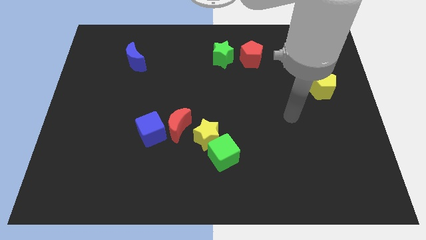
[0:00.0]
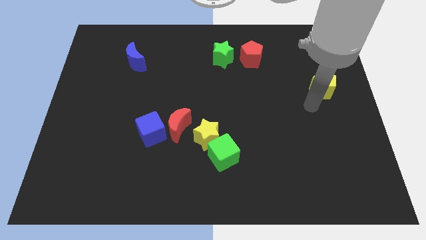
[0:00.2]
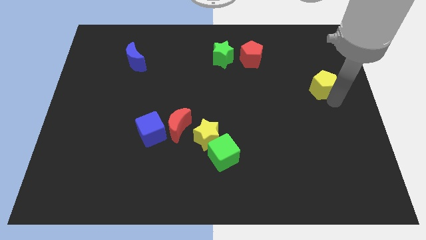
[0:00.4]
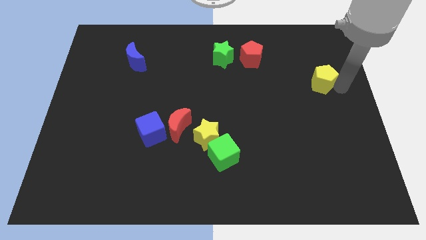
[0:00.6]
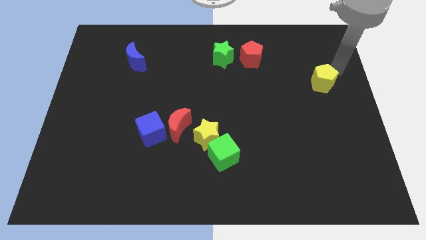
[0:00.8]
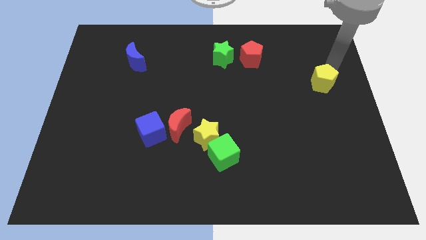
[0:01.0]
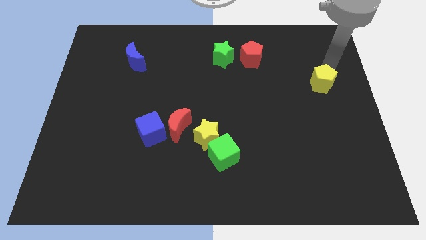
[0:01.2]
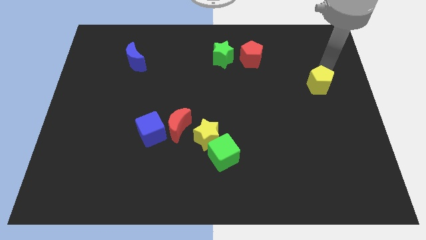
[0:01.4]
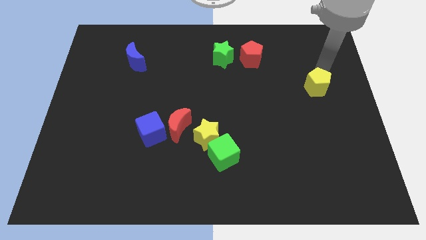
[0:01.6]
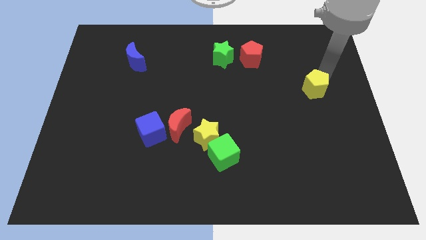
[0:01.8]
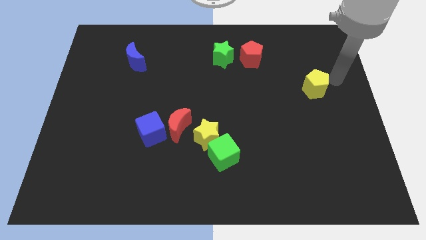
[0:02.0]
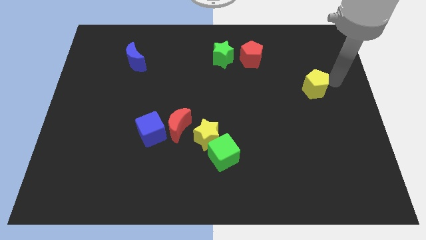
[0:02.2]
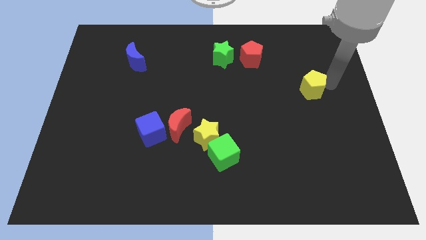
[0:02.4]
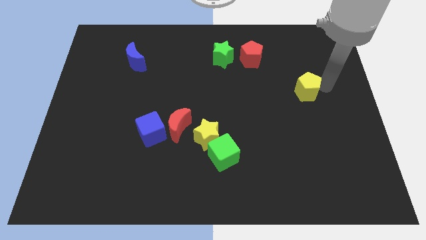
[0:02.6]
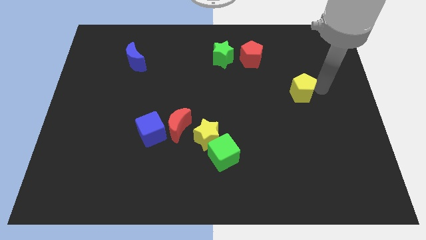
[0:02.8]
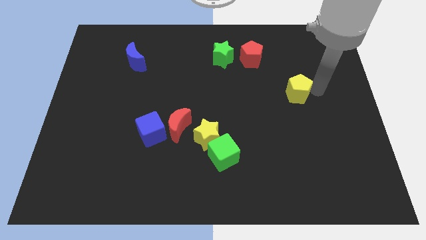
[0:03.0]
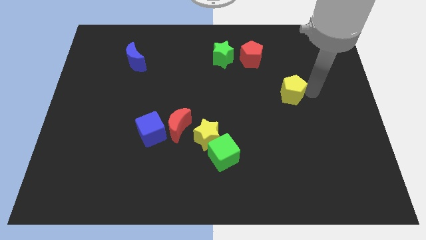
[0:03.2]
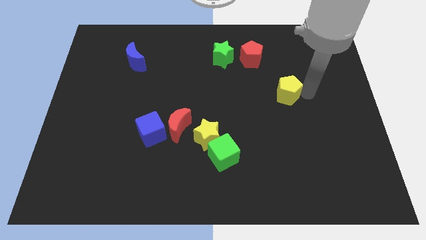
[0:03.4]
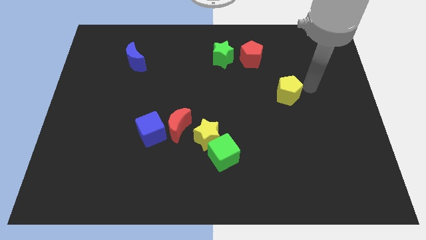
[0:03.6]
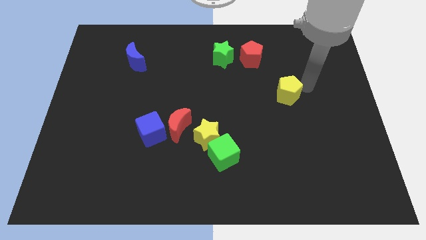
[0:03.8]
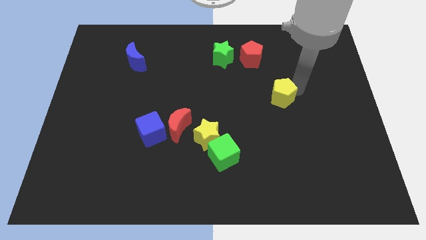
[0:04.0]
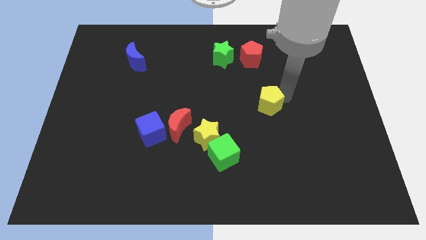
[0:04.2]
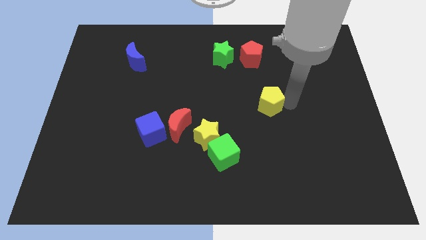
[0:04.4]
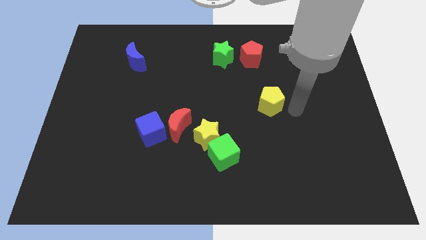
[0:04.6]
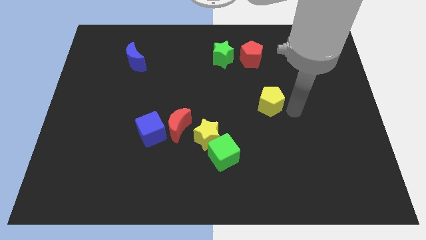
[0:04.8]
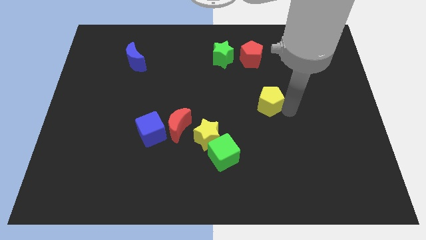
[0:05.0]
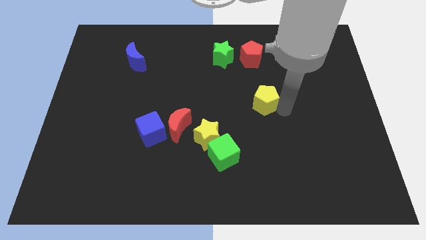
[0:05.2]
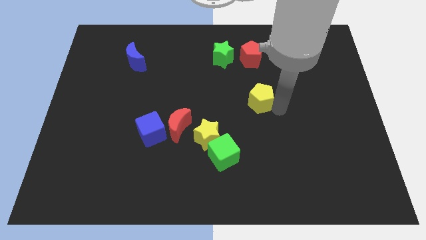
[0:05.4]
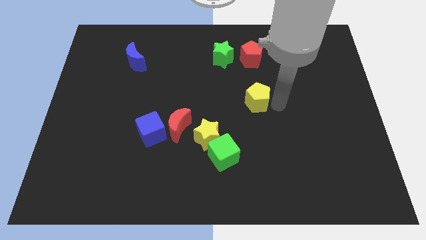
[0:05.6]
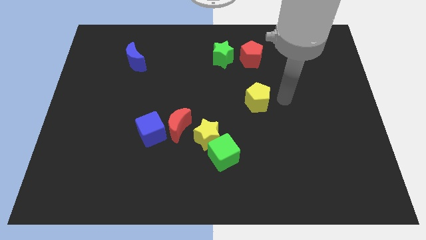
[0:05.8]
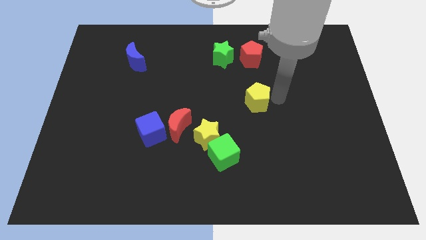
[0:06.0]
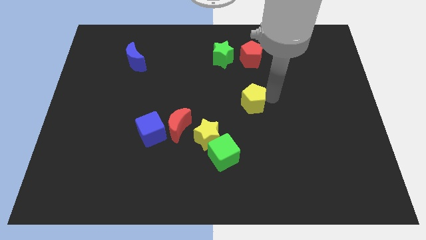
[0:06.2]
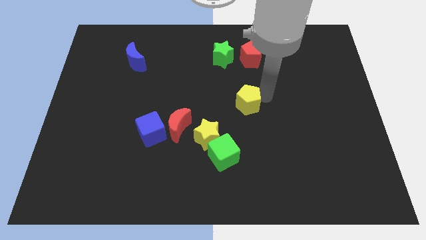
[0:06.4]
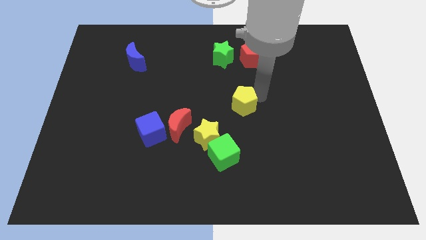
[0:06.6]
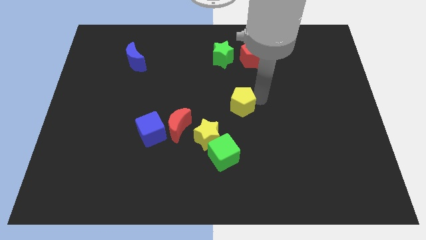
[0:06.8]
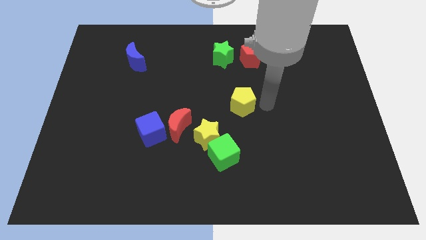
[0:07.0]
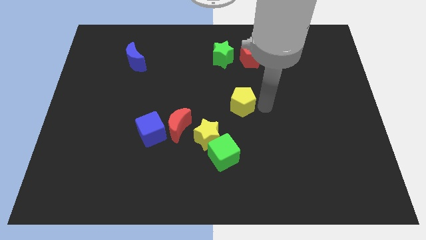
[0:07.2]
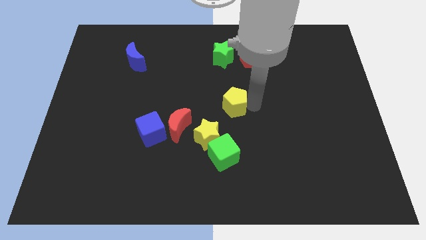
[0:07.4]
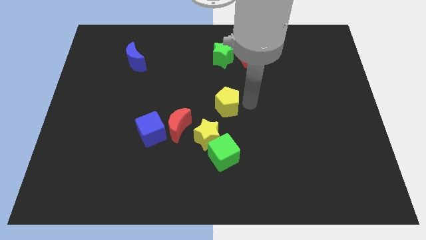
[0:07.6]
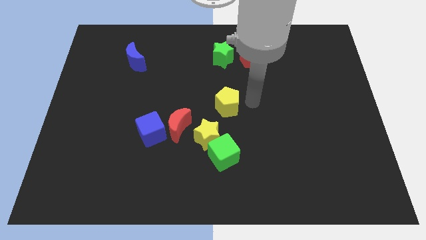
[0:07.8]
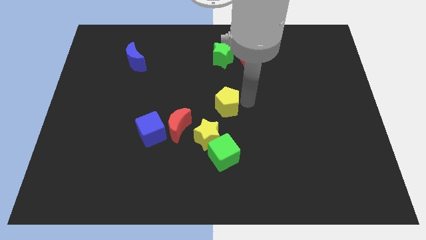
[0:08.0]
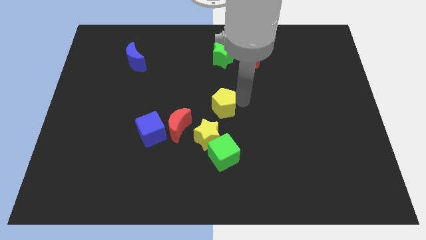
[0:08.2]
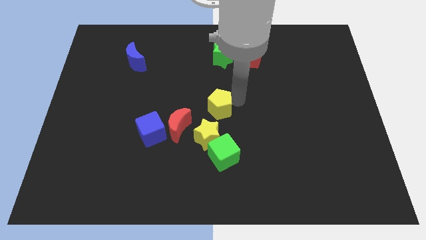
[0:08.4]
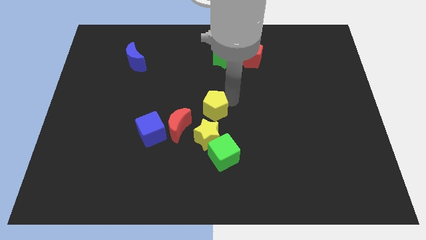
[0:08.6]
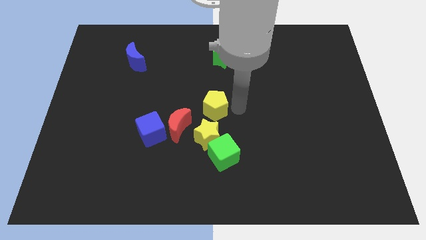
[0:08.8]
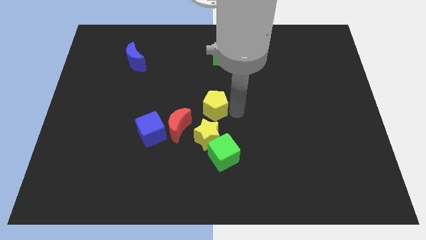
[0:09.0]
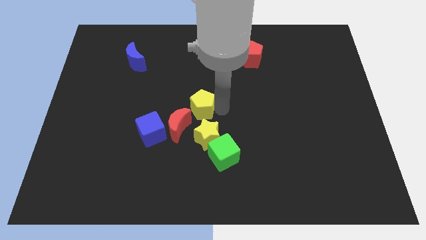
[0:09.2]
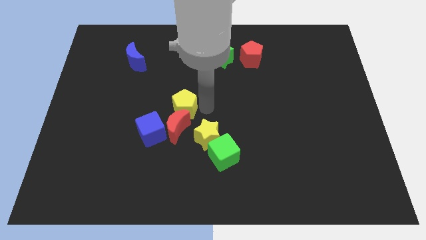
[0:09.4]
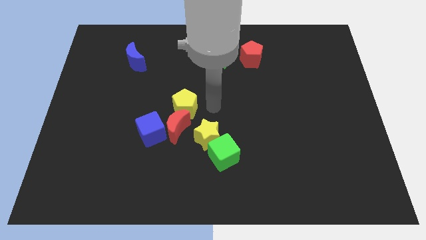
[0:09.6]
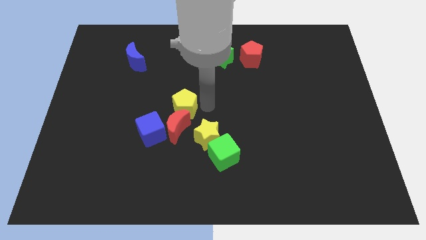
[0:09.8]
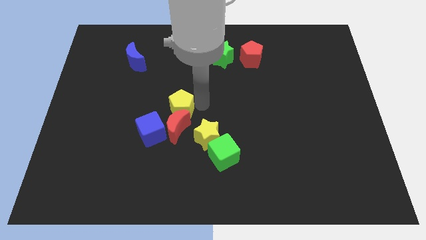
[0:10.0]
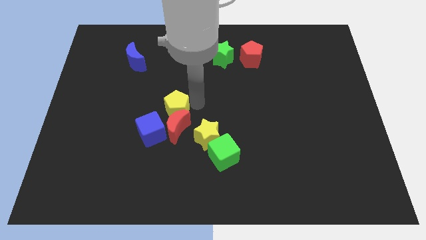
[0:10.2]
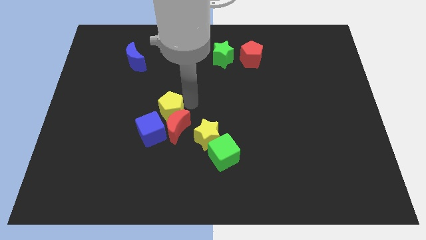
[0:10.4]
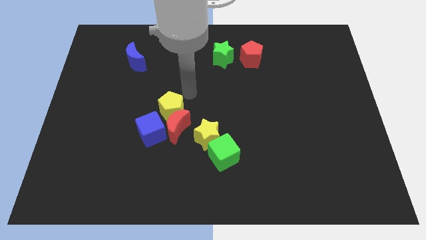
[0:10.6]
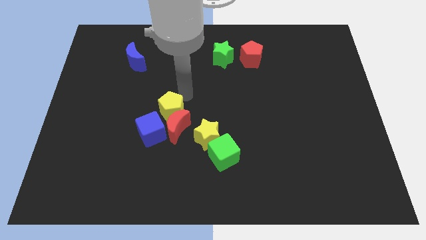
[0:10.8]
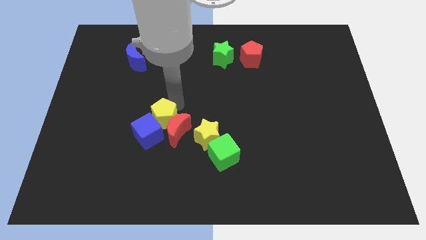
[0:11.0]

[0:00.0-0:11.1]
move the yellow pentagon towards the blue cube

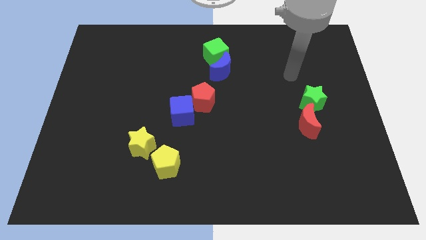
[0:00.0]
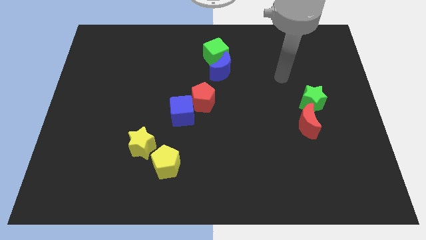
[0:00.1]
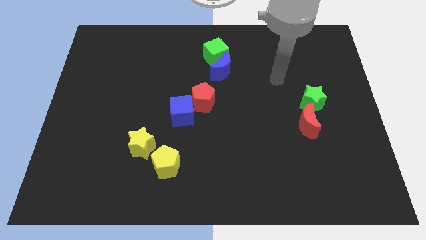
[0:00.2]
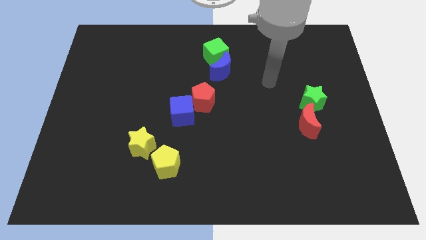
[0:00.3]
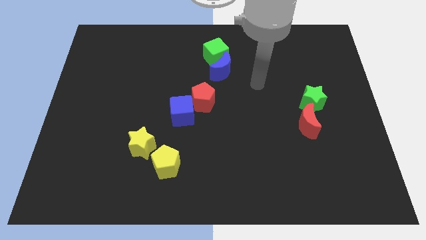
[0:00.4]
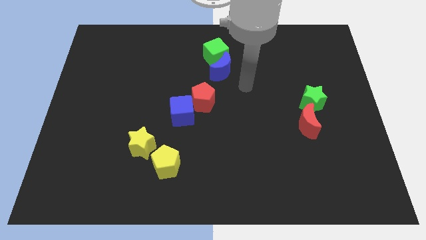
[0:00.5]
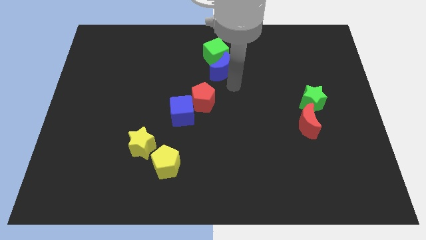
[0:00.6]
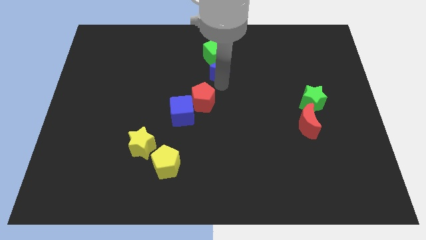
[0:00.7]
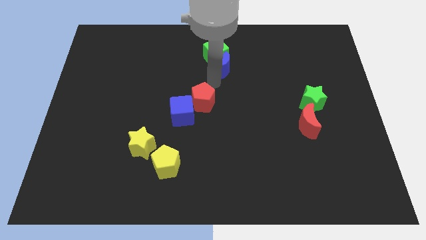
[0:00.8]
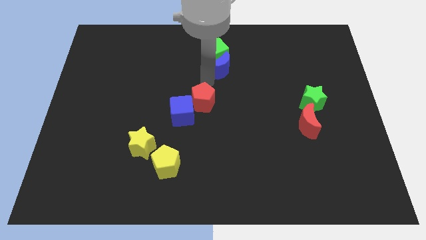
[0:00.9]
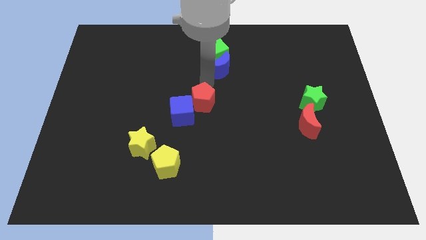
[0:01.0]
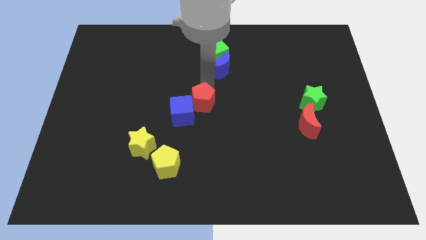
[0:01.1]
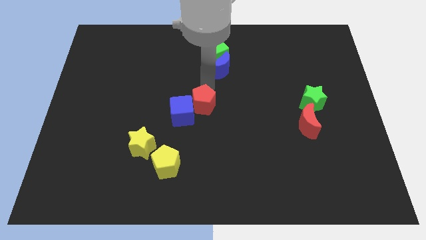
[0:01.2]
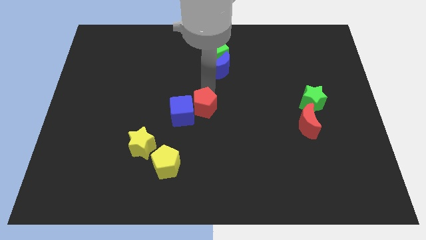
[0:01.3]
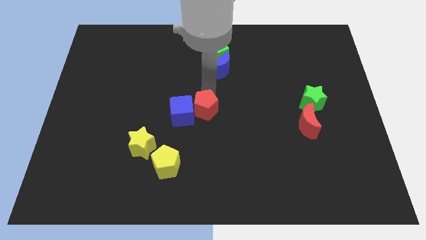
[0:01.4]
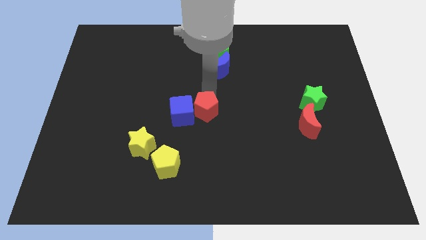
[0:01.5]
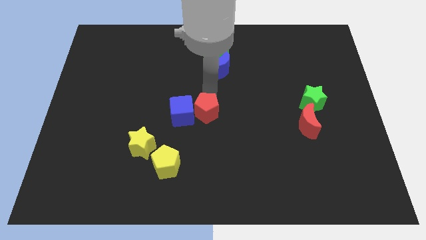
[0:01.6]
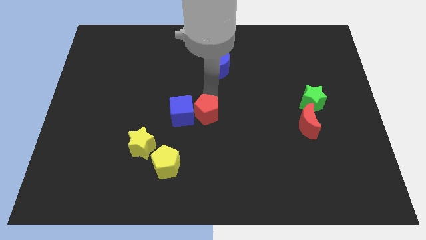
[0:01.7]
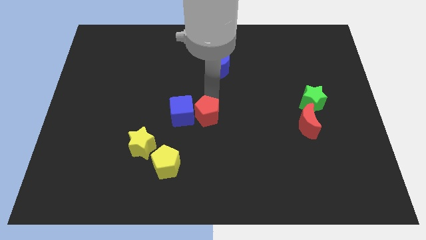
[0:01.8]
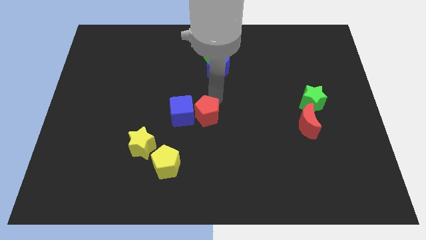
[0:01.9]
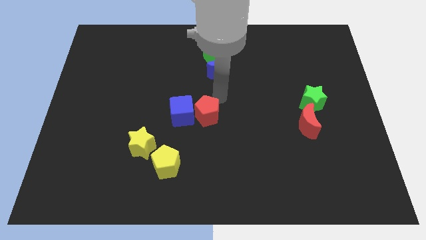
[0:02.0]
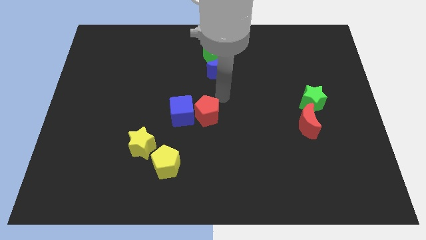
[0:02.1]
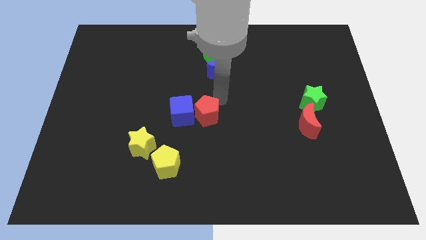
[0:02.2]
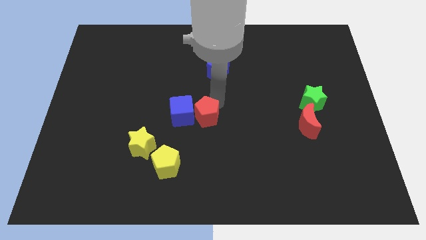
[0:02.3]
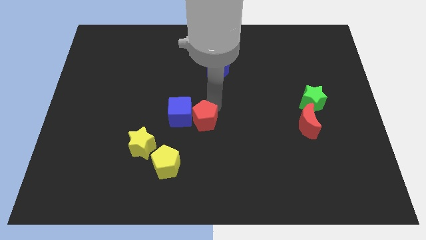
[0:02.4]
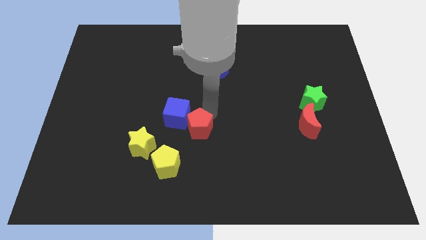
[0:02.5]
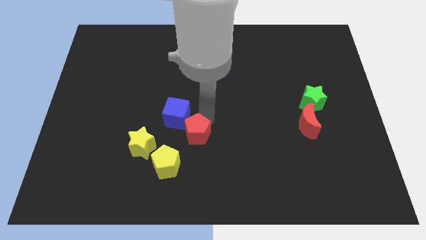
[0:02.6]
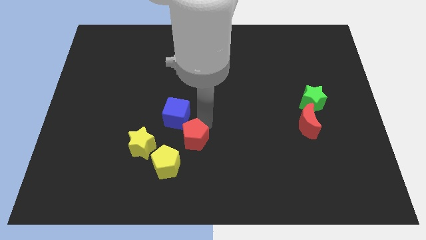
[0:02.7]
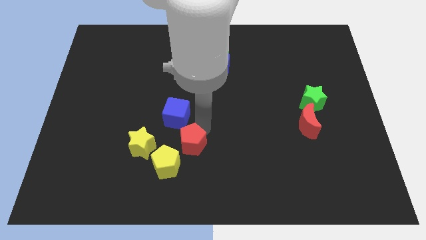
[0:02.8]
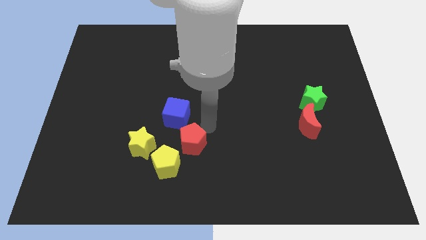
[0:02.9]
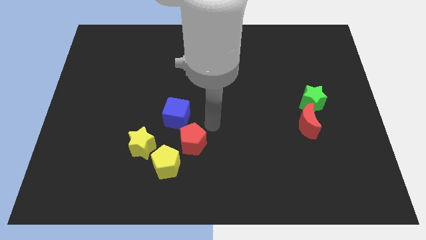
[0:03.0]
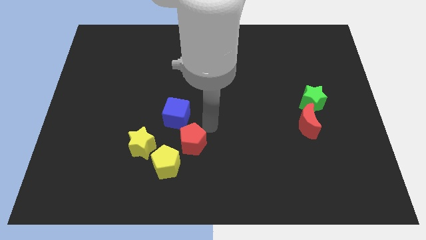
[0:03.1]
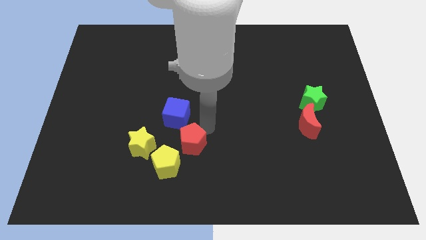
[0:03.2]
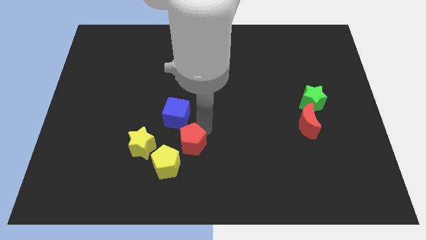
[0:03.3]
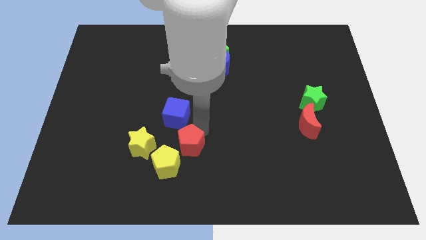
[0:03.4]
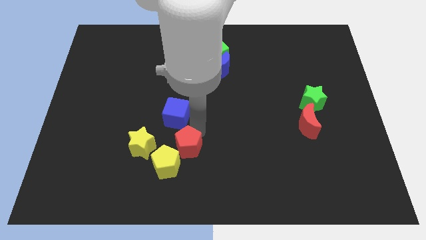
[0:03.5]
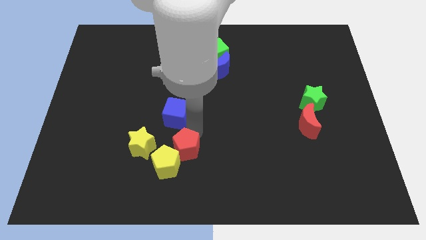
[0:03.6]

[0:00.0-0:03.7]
move the red pentagon to the yellow pentagon
